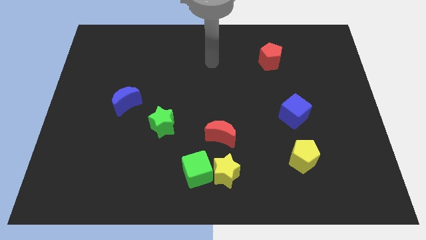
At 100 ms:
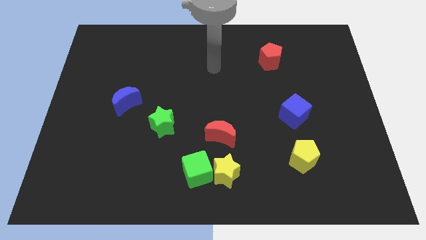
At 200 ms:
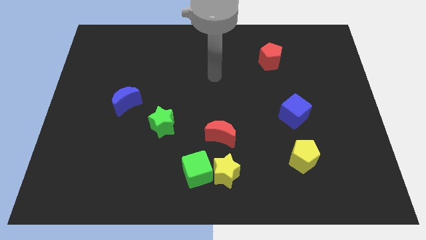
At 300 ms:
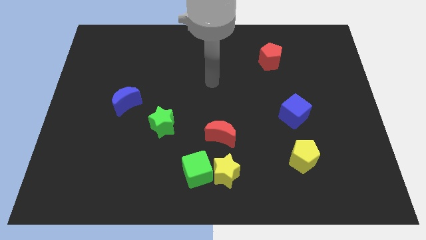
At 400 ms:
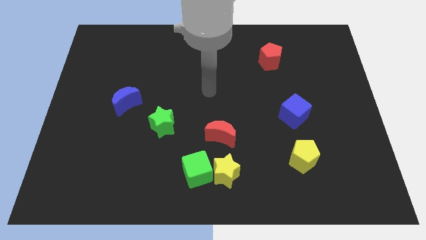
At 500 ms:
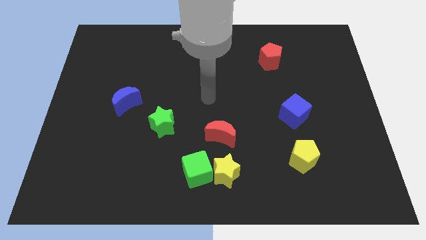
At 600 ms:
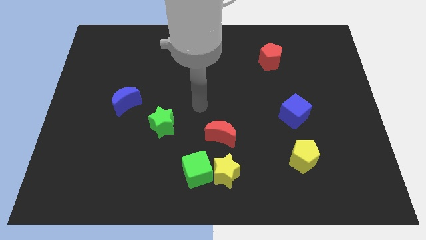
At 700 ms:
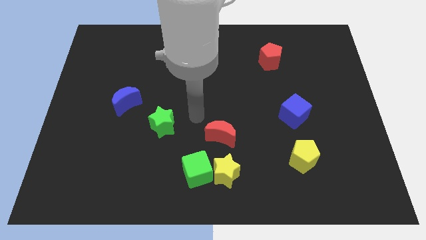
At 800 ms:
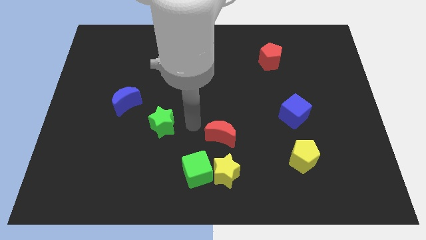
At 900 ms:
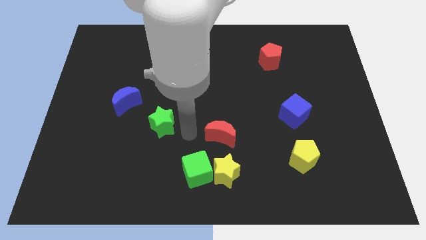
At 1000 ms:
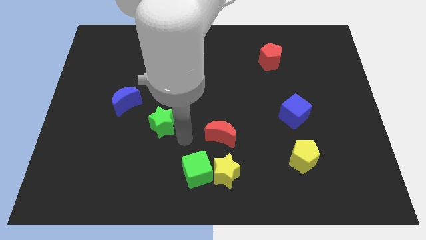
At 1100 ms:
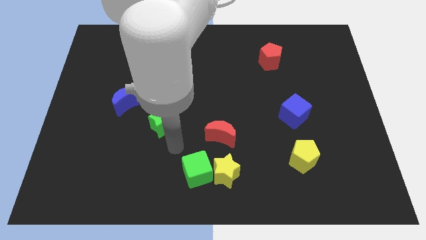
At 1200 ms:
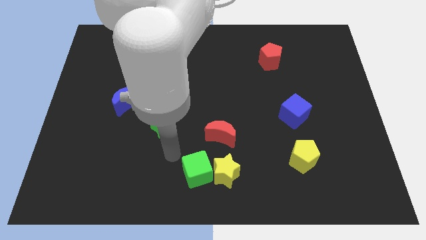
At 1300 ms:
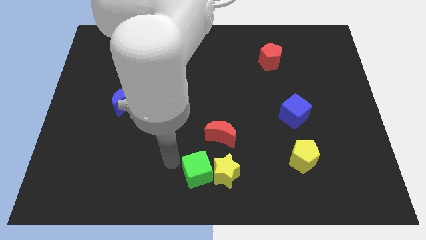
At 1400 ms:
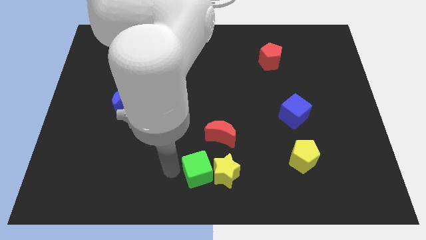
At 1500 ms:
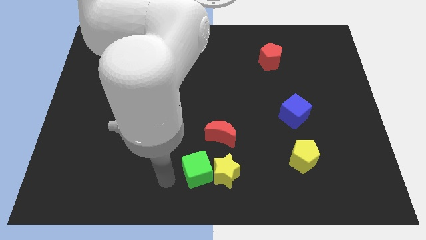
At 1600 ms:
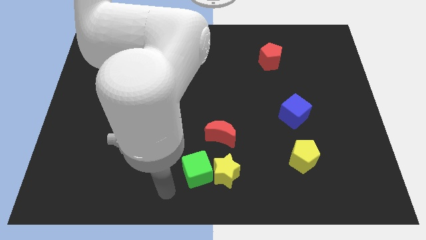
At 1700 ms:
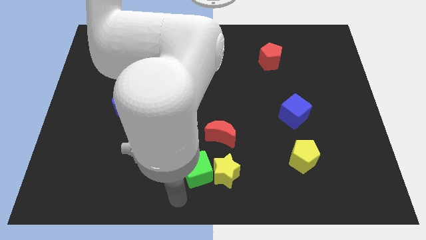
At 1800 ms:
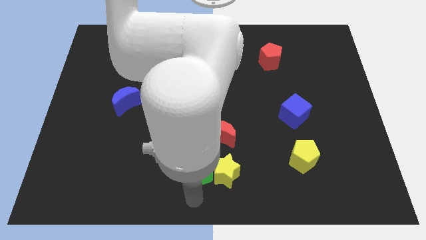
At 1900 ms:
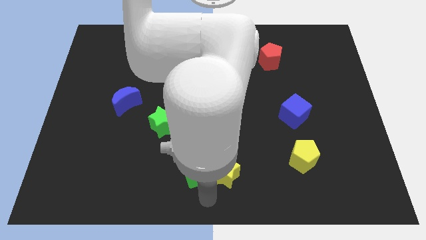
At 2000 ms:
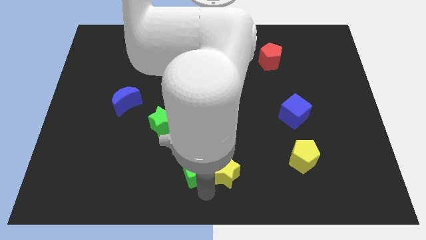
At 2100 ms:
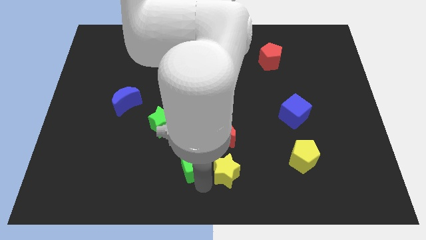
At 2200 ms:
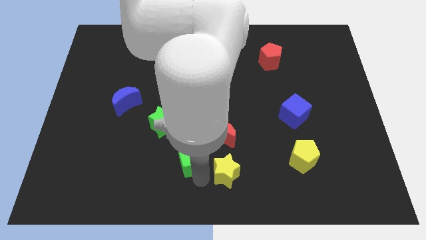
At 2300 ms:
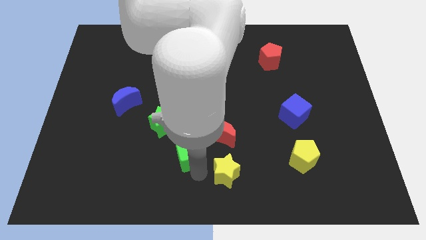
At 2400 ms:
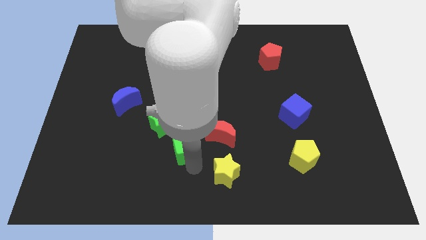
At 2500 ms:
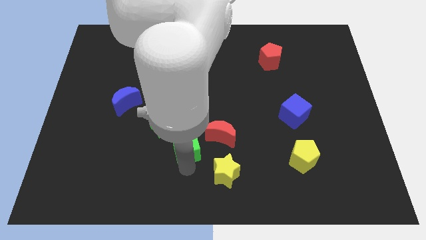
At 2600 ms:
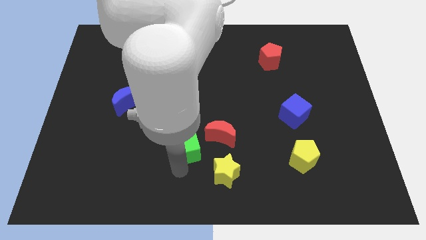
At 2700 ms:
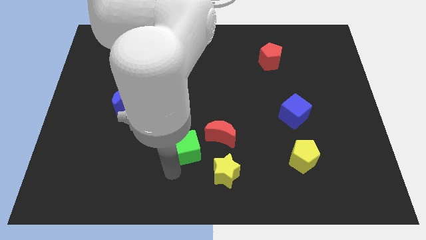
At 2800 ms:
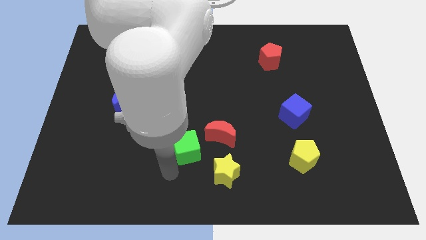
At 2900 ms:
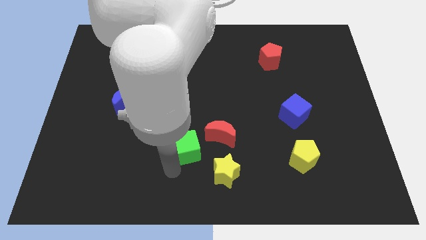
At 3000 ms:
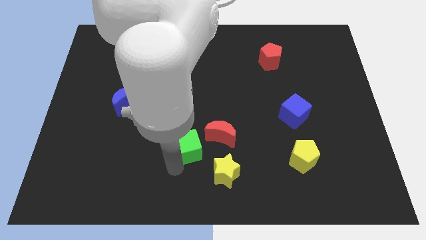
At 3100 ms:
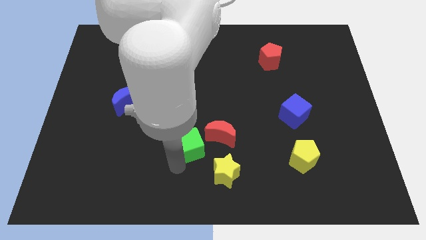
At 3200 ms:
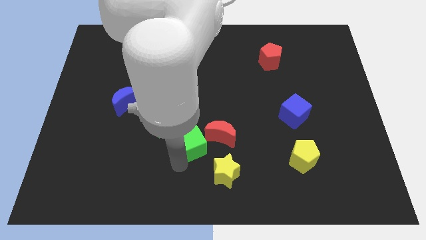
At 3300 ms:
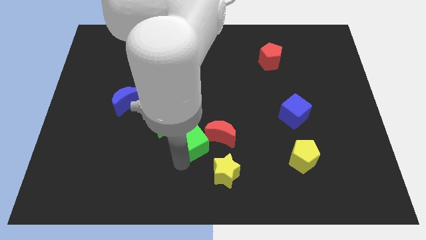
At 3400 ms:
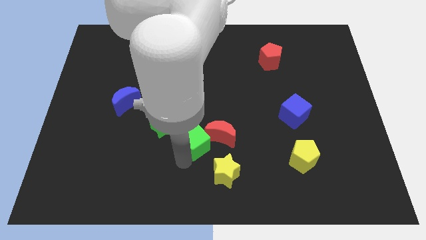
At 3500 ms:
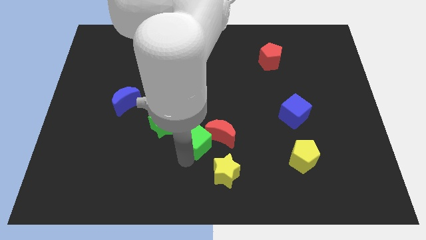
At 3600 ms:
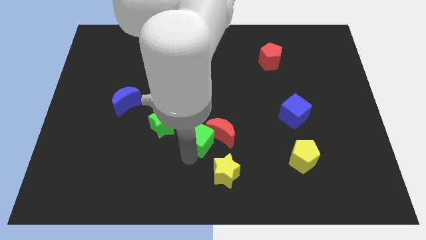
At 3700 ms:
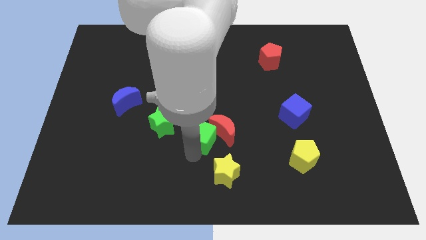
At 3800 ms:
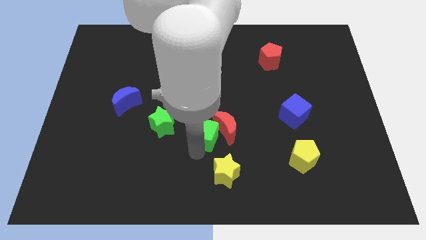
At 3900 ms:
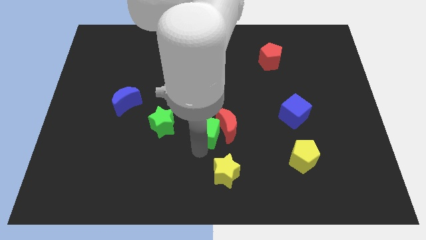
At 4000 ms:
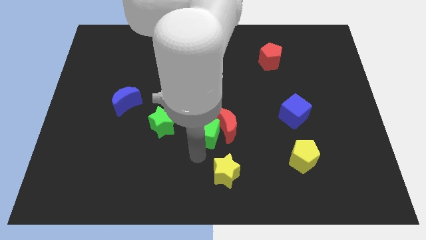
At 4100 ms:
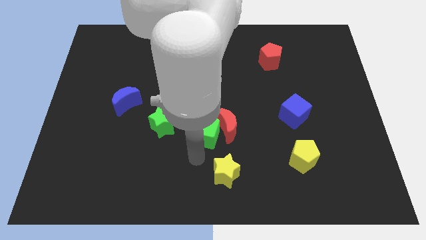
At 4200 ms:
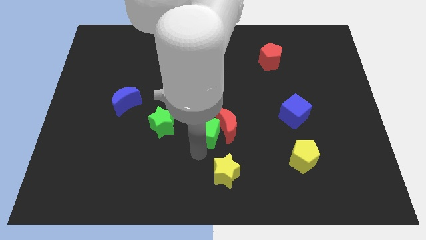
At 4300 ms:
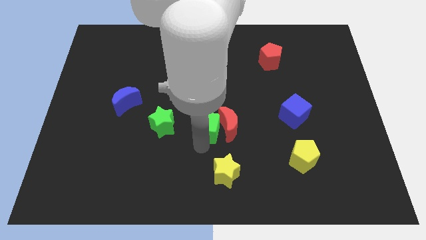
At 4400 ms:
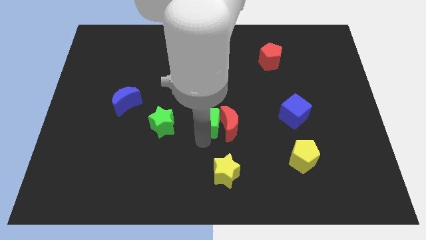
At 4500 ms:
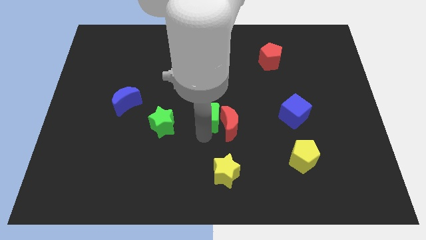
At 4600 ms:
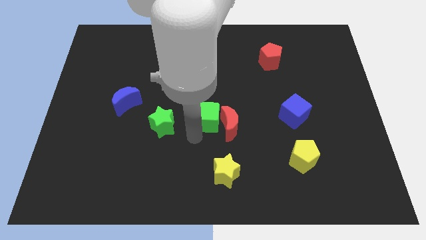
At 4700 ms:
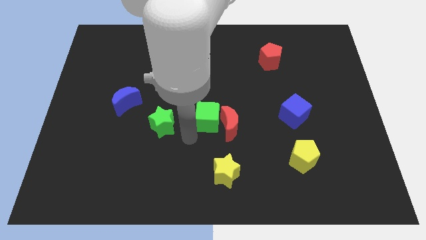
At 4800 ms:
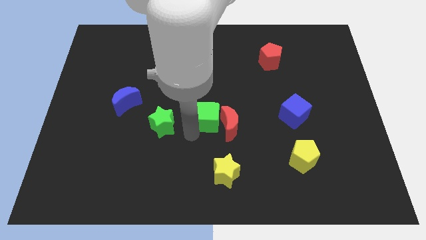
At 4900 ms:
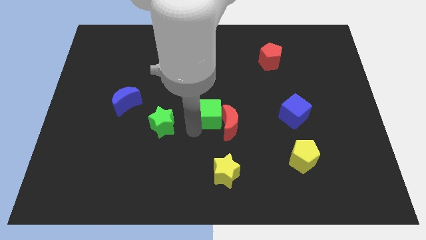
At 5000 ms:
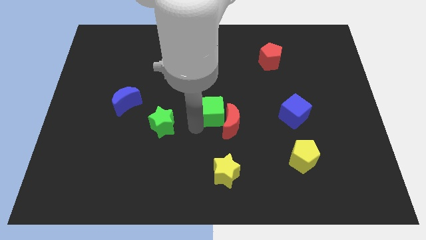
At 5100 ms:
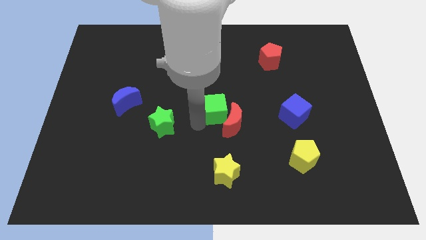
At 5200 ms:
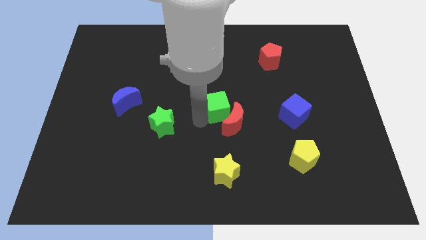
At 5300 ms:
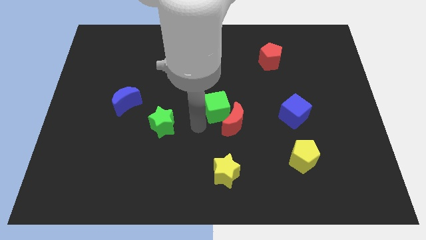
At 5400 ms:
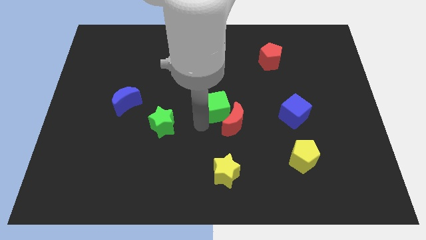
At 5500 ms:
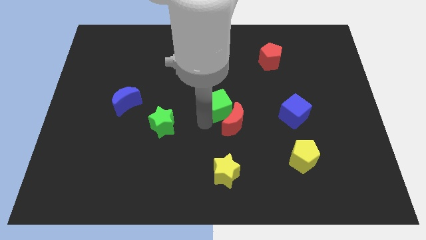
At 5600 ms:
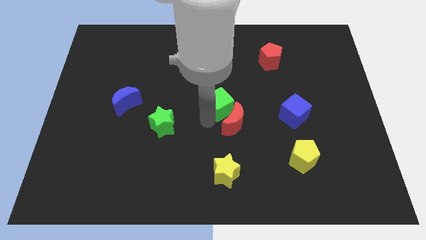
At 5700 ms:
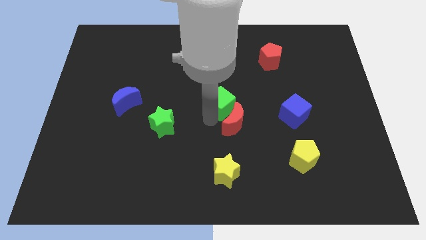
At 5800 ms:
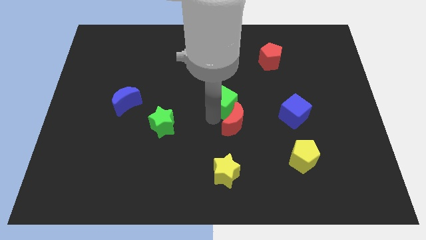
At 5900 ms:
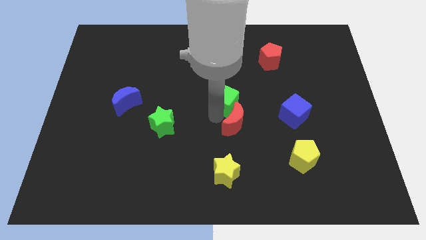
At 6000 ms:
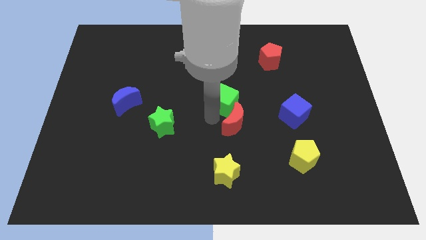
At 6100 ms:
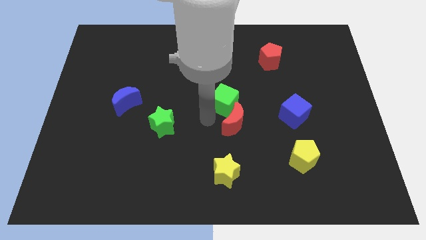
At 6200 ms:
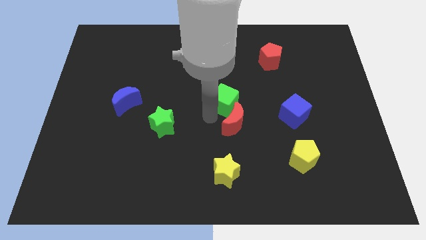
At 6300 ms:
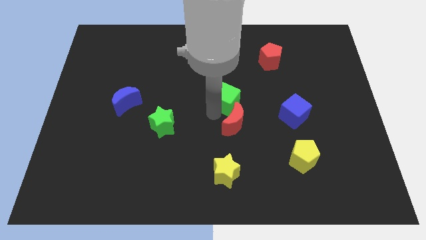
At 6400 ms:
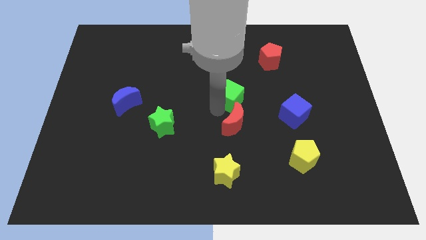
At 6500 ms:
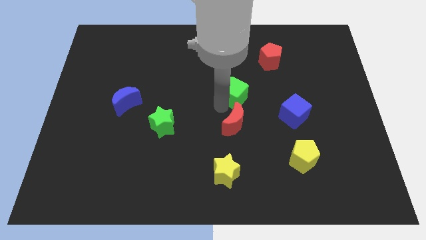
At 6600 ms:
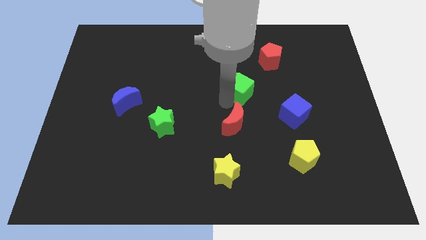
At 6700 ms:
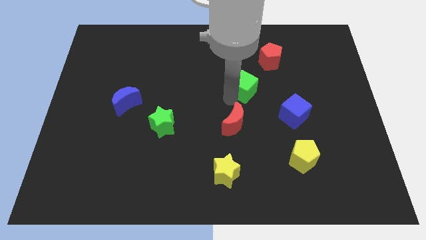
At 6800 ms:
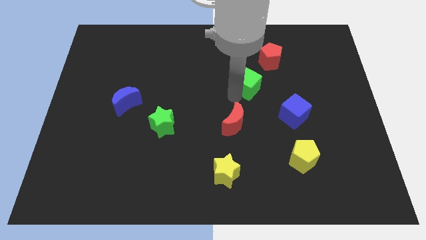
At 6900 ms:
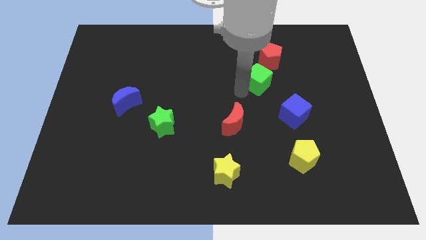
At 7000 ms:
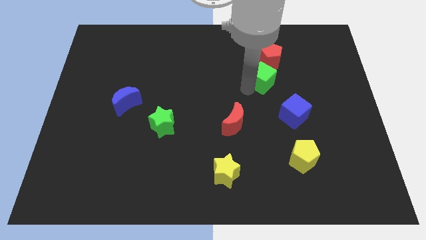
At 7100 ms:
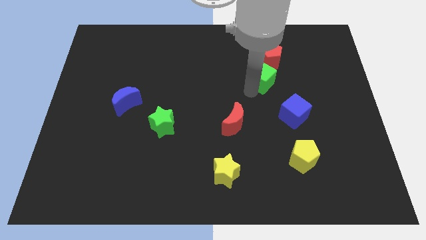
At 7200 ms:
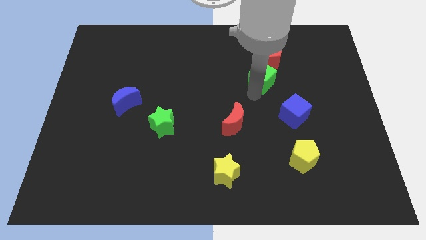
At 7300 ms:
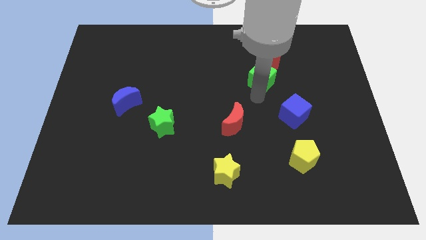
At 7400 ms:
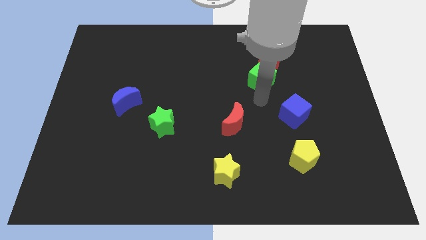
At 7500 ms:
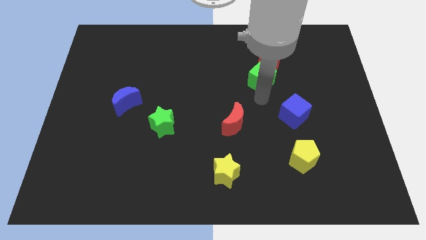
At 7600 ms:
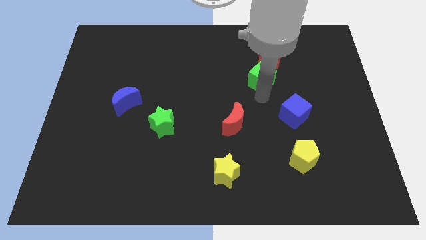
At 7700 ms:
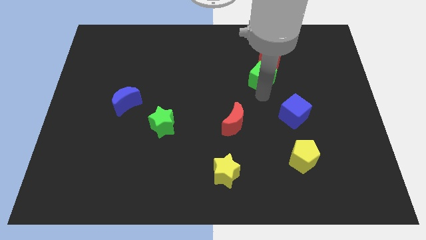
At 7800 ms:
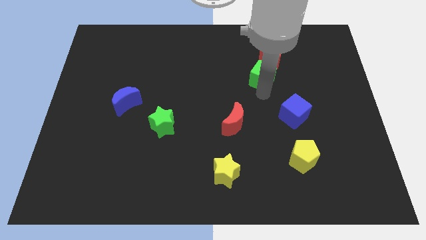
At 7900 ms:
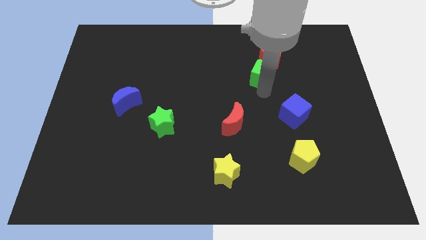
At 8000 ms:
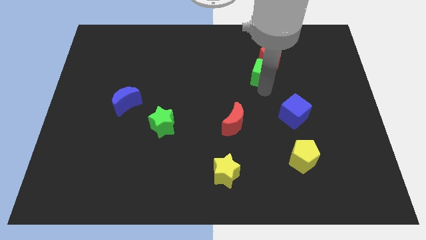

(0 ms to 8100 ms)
put the green cube towards the red pentagon
